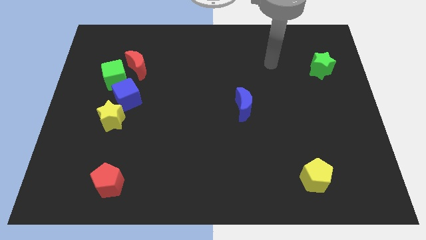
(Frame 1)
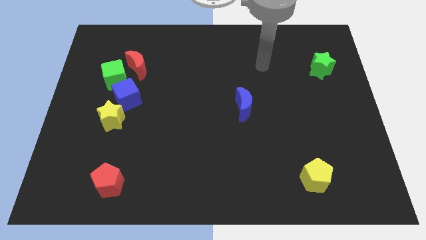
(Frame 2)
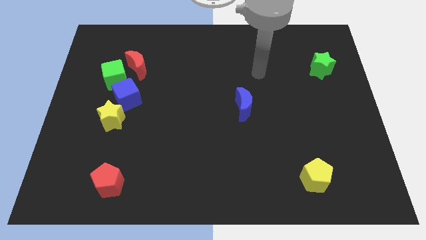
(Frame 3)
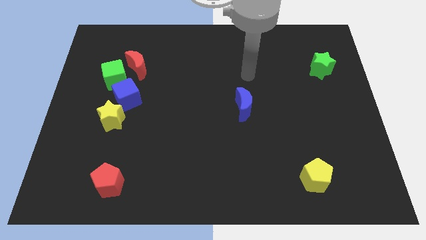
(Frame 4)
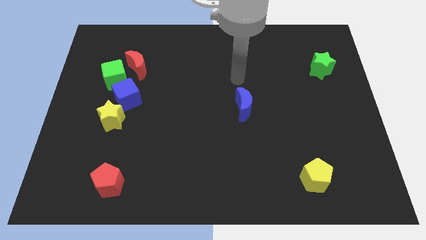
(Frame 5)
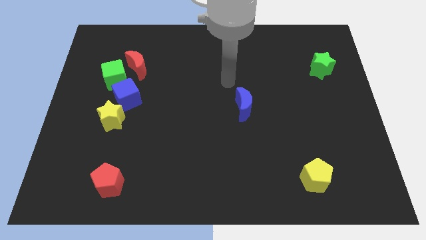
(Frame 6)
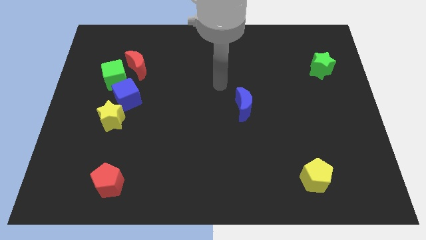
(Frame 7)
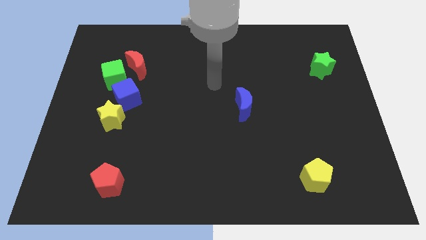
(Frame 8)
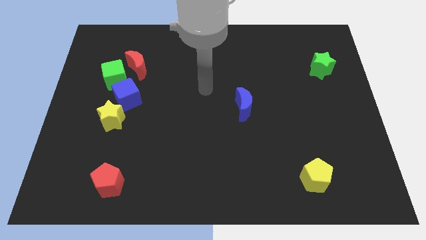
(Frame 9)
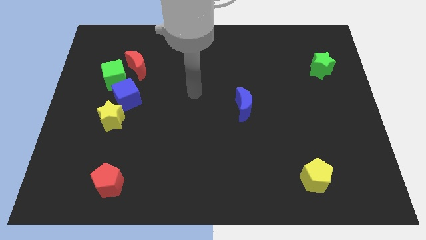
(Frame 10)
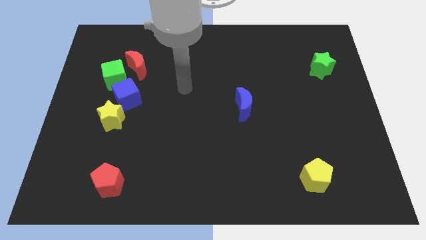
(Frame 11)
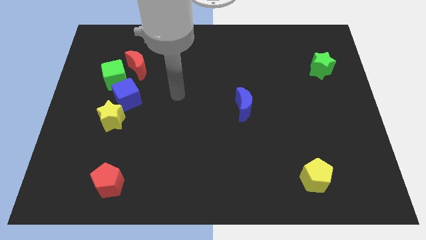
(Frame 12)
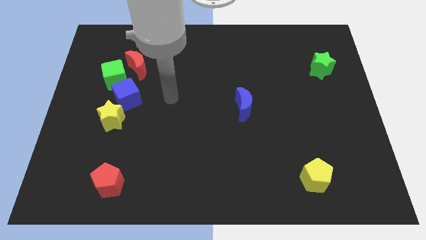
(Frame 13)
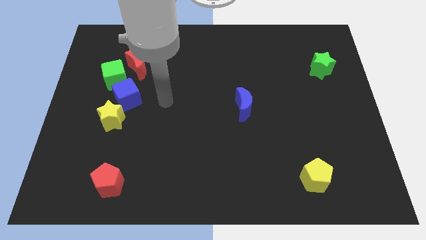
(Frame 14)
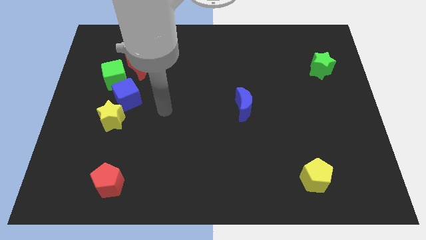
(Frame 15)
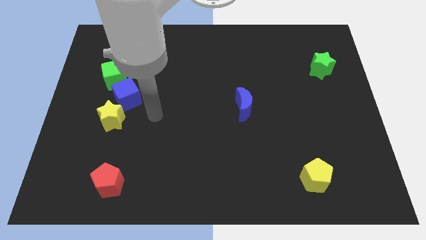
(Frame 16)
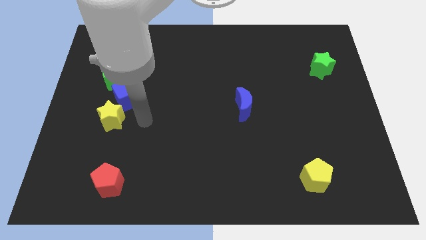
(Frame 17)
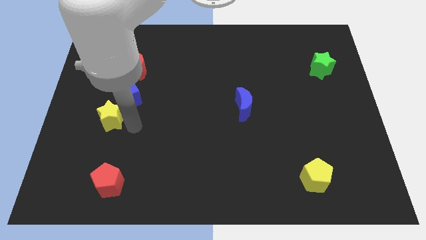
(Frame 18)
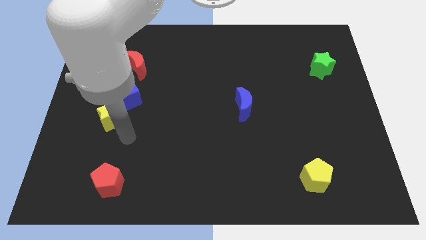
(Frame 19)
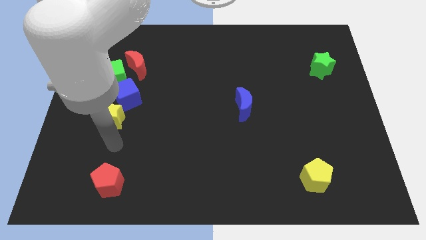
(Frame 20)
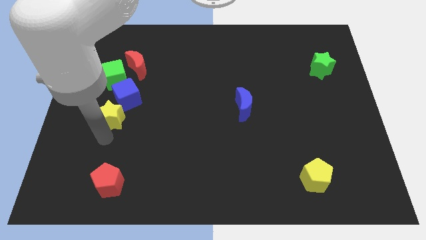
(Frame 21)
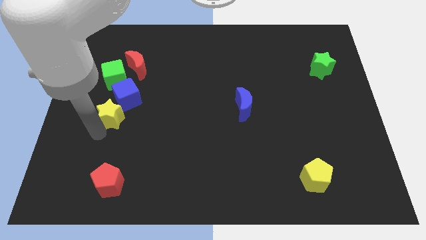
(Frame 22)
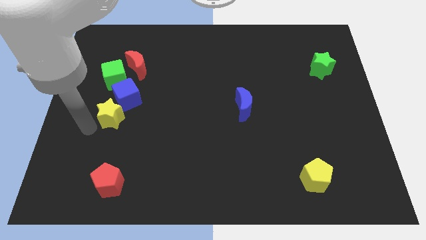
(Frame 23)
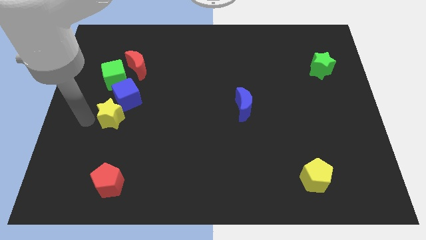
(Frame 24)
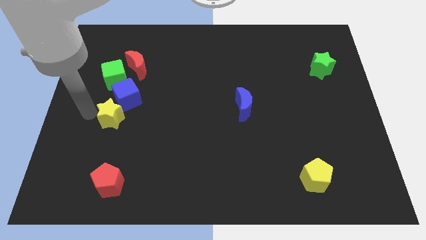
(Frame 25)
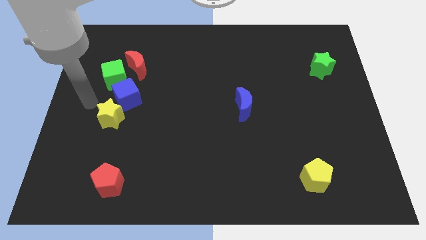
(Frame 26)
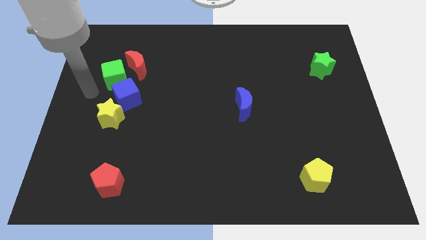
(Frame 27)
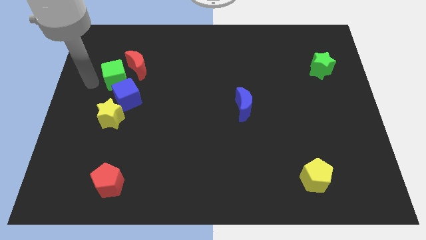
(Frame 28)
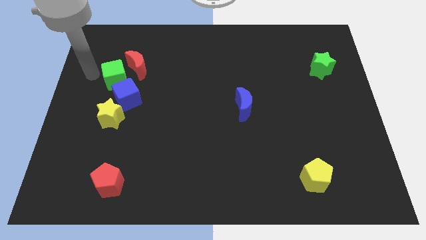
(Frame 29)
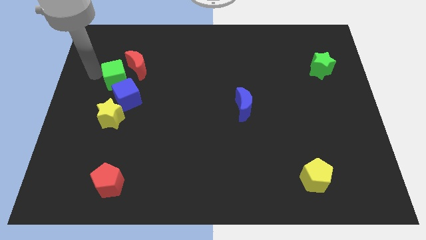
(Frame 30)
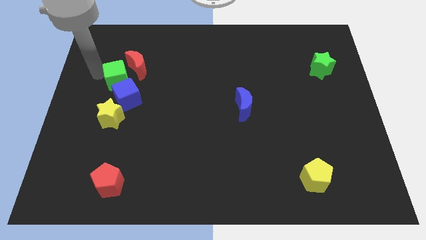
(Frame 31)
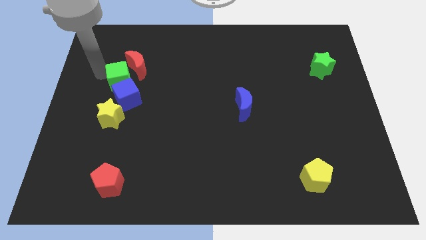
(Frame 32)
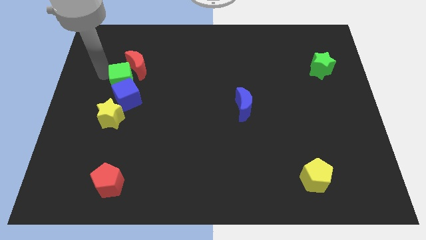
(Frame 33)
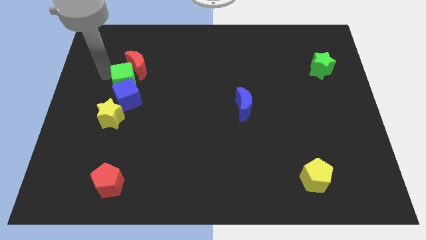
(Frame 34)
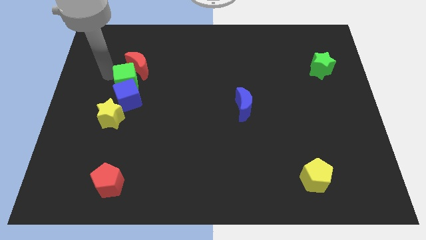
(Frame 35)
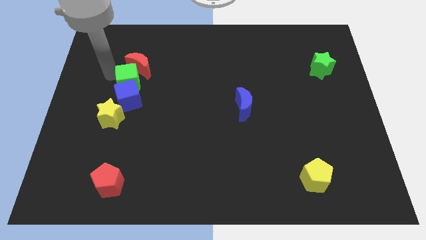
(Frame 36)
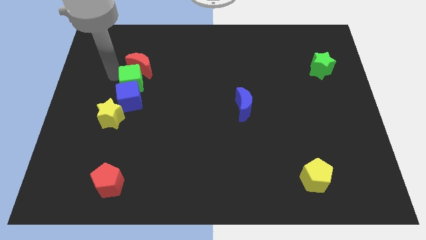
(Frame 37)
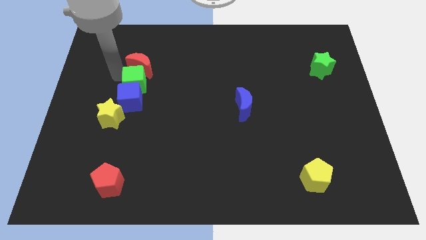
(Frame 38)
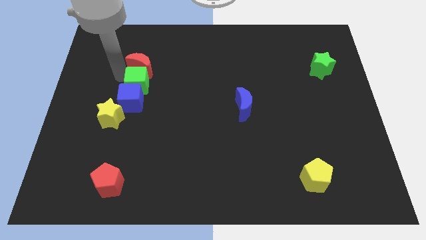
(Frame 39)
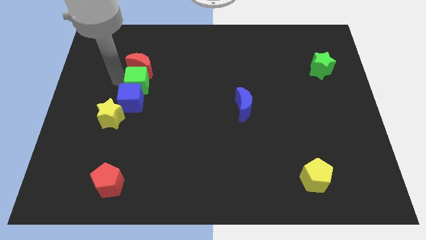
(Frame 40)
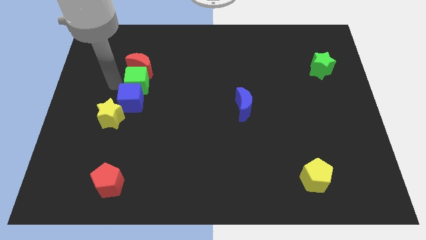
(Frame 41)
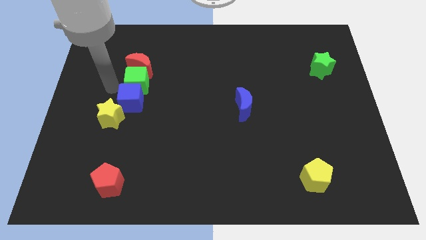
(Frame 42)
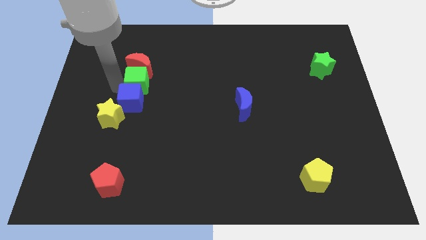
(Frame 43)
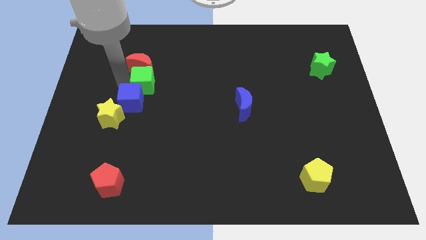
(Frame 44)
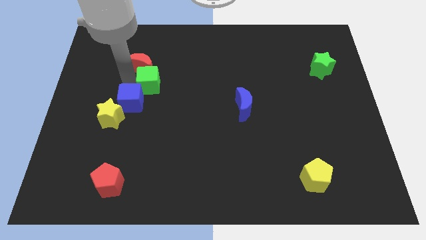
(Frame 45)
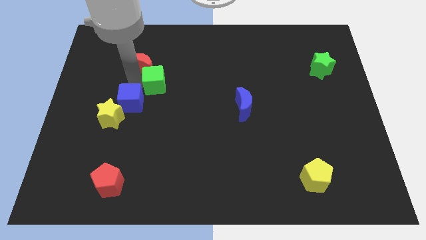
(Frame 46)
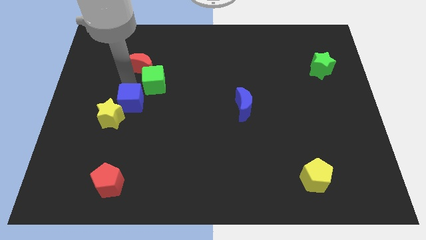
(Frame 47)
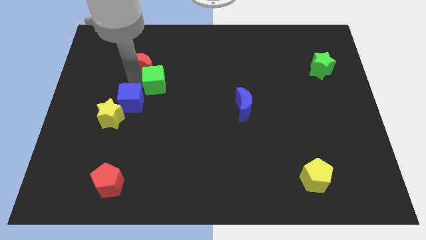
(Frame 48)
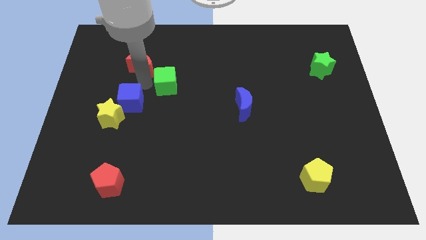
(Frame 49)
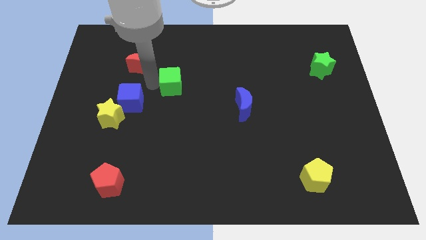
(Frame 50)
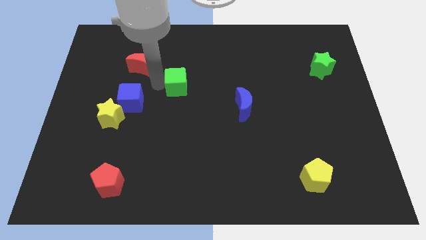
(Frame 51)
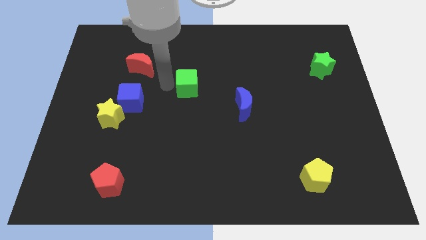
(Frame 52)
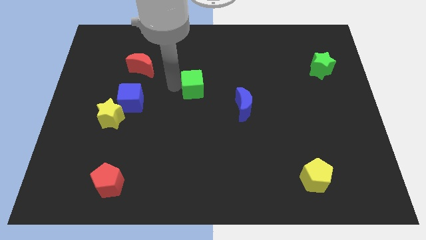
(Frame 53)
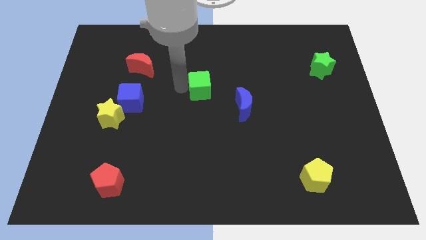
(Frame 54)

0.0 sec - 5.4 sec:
move the green cube right

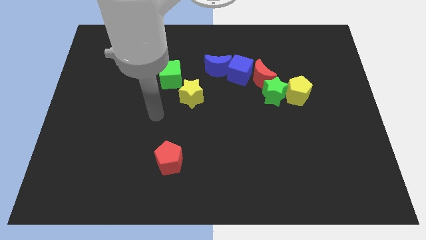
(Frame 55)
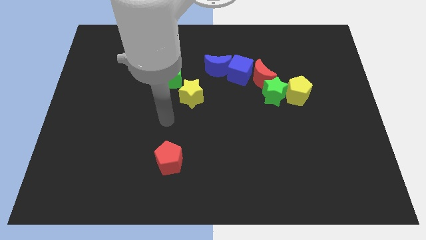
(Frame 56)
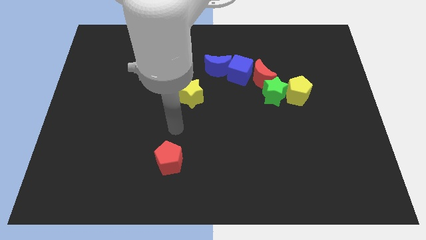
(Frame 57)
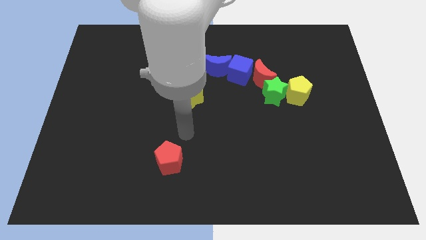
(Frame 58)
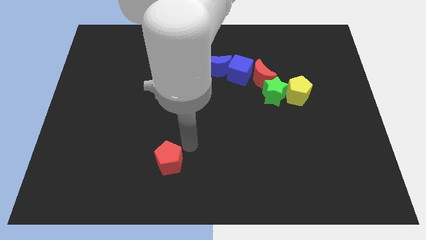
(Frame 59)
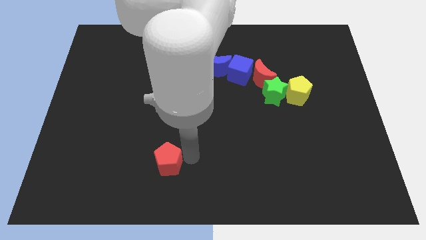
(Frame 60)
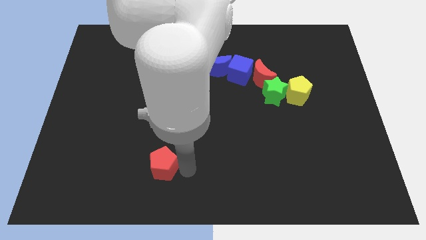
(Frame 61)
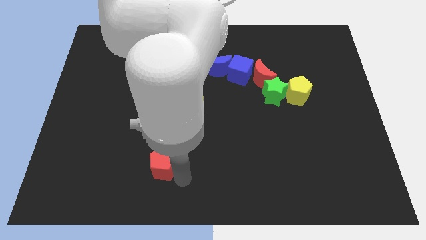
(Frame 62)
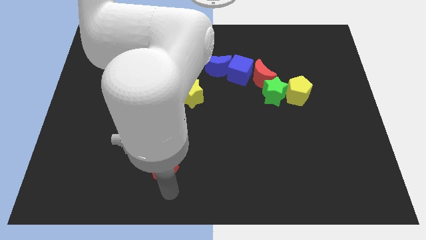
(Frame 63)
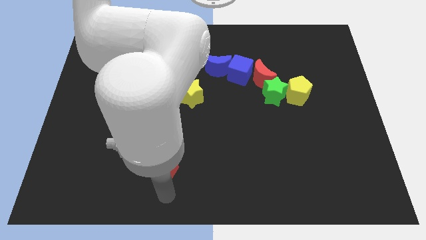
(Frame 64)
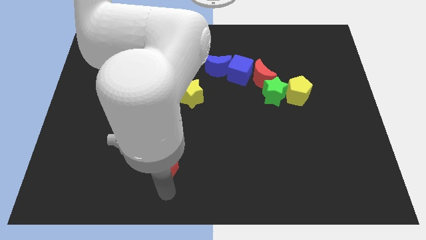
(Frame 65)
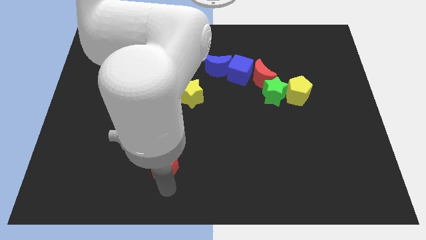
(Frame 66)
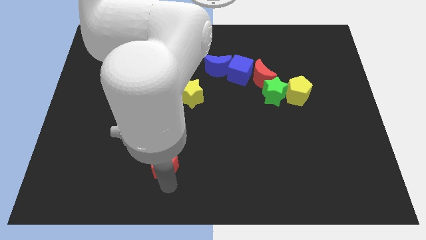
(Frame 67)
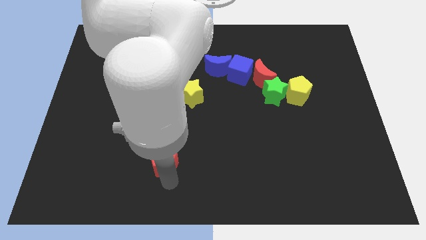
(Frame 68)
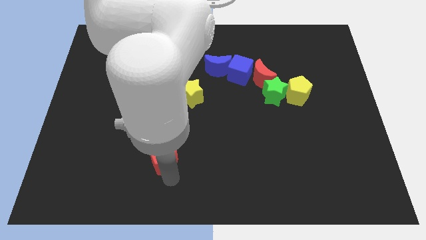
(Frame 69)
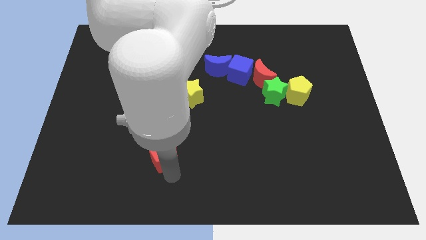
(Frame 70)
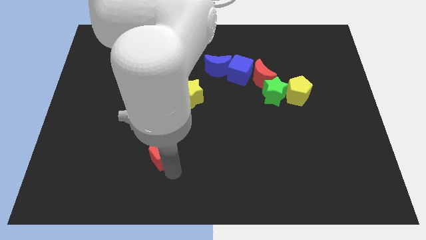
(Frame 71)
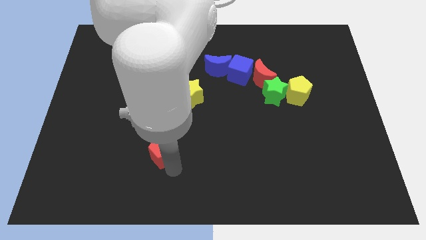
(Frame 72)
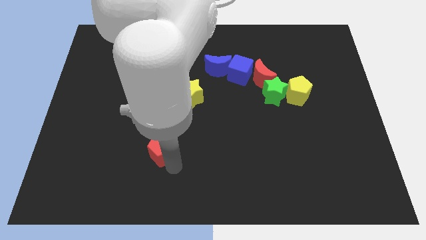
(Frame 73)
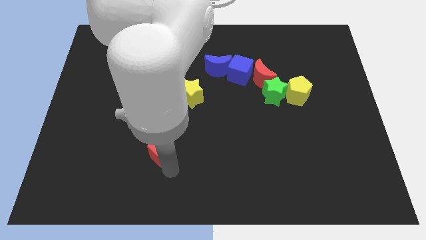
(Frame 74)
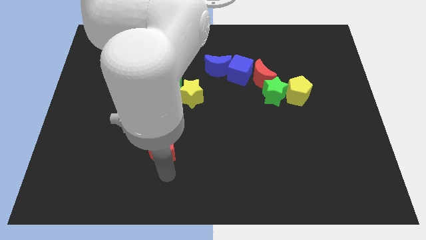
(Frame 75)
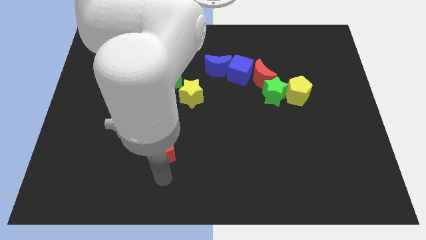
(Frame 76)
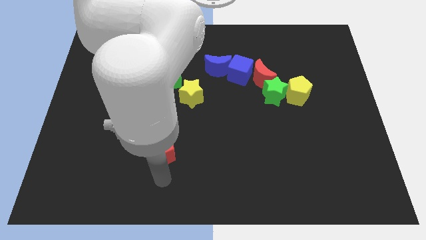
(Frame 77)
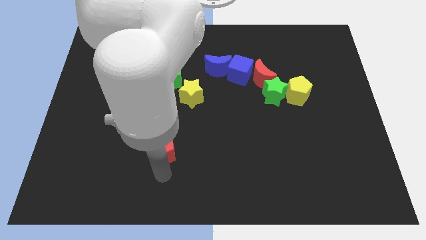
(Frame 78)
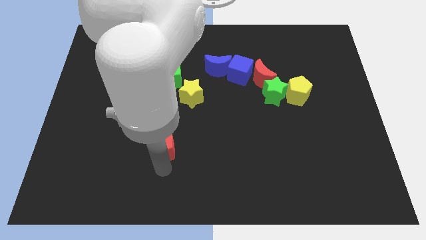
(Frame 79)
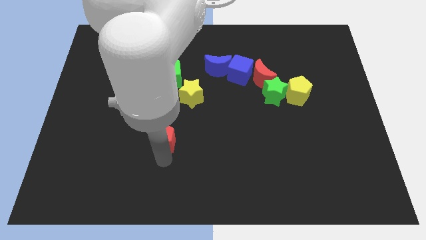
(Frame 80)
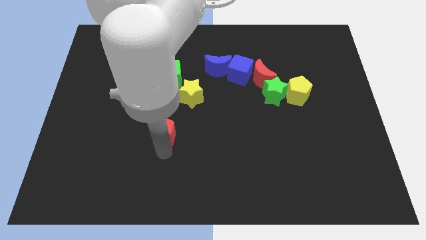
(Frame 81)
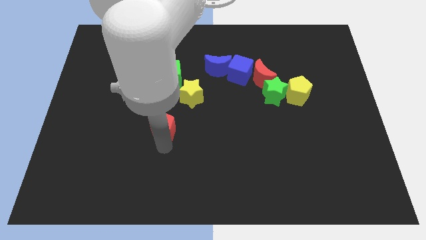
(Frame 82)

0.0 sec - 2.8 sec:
slightly push the red pentagon up
